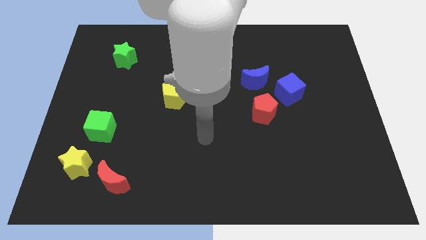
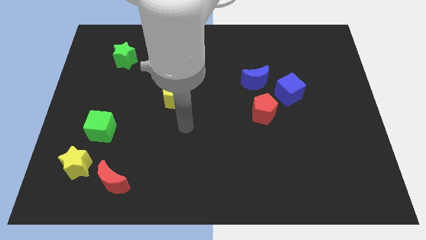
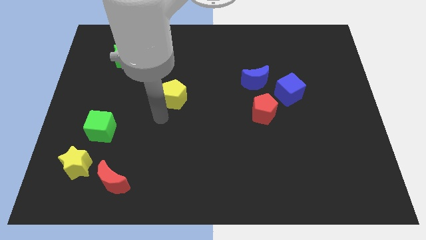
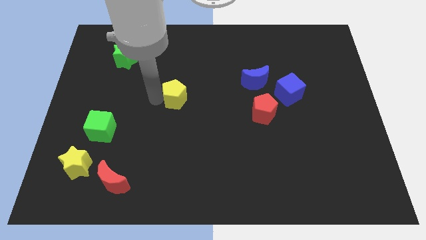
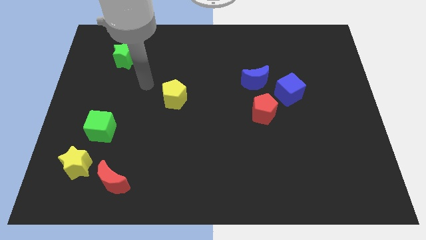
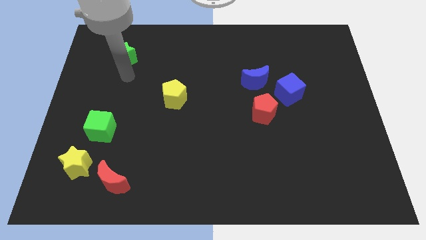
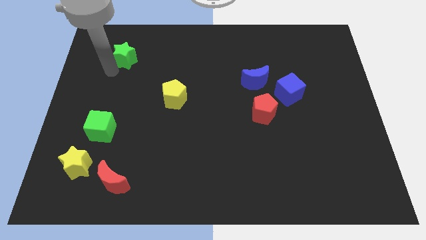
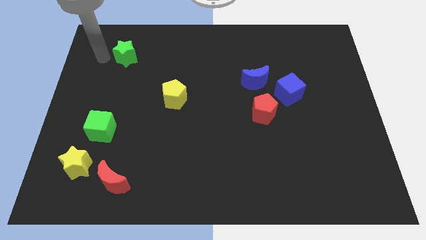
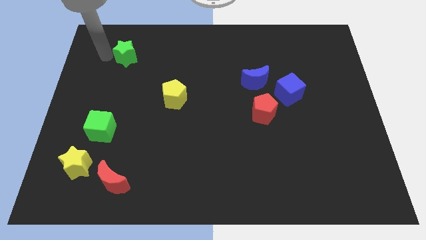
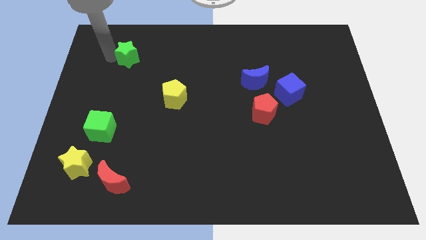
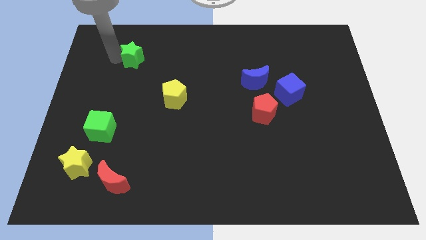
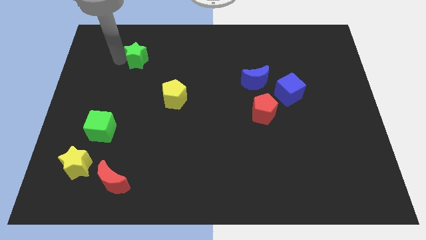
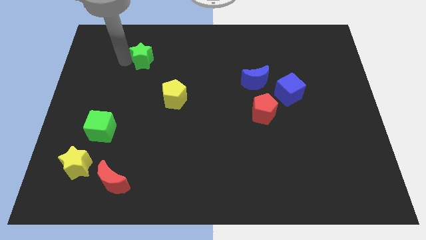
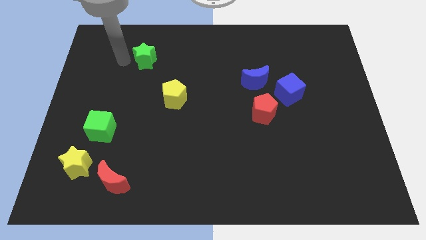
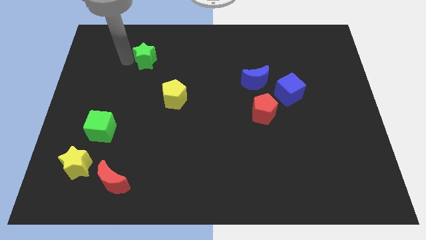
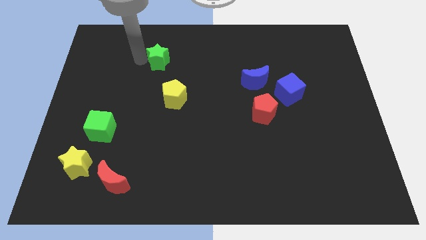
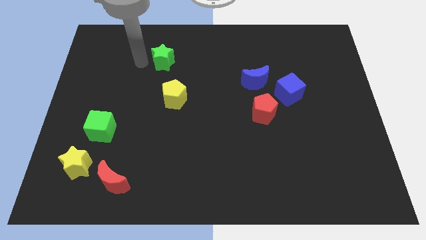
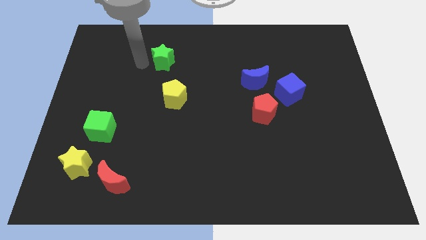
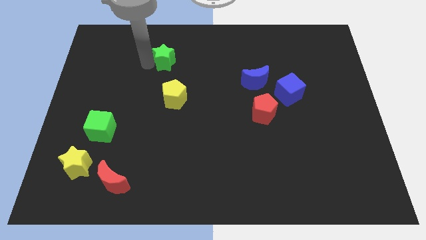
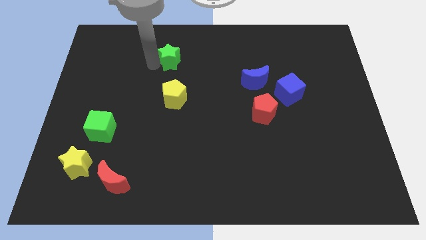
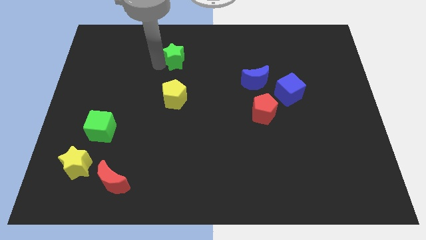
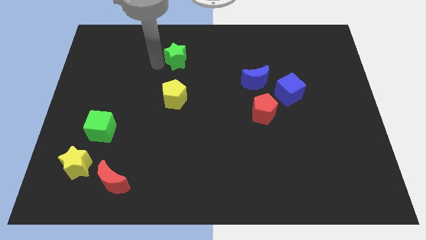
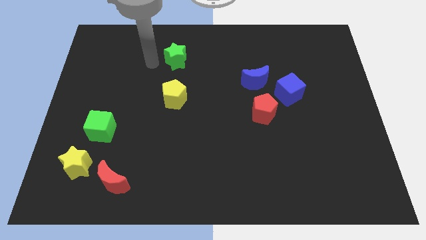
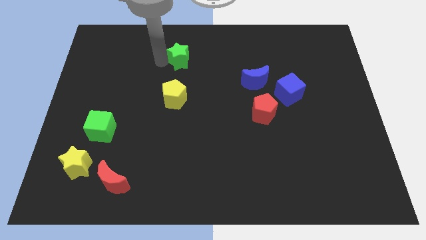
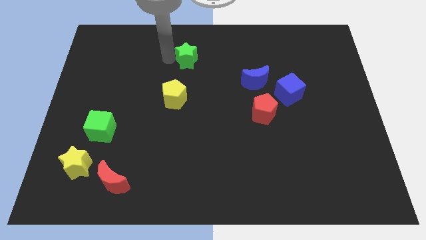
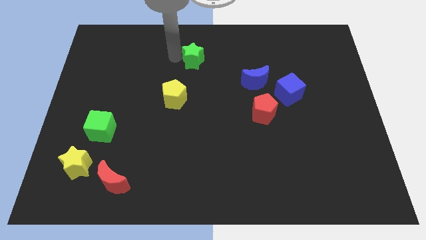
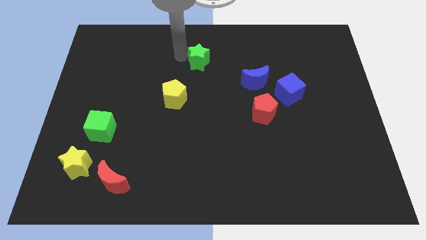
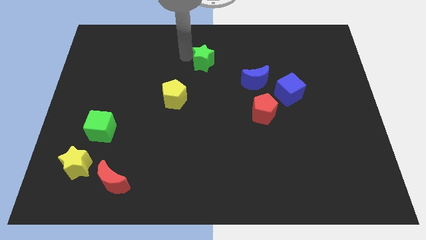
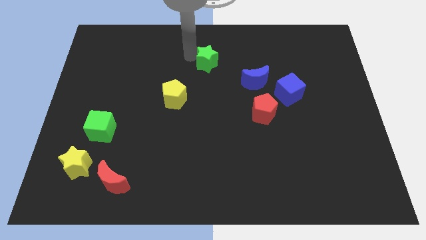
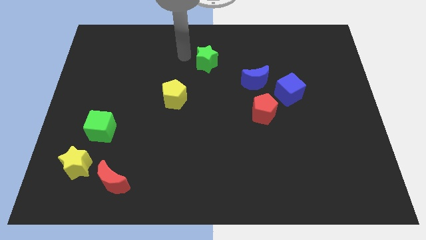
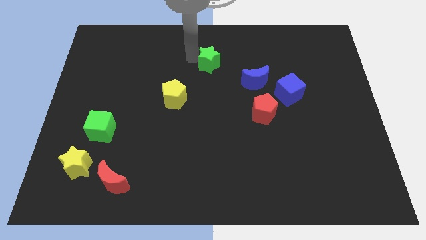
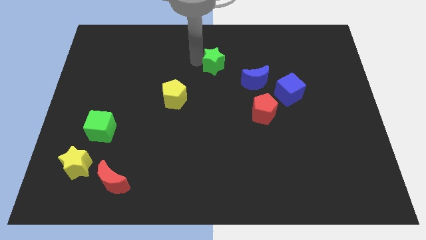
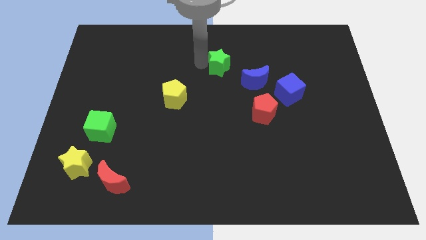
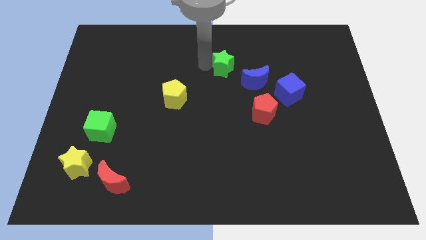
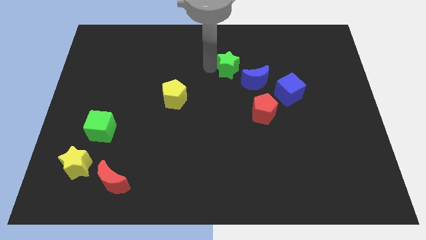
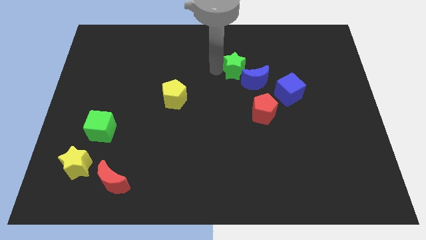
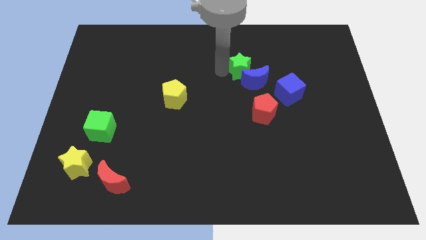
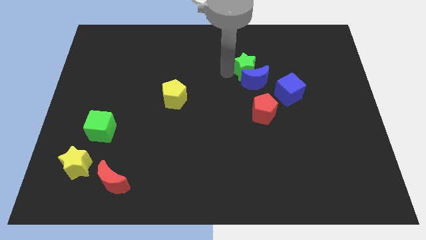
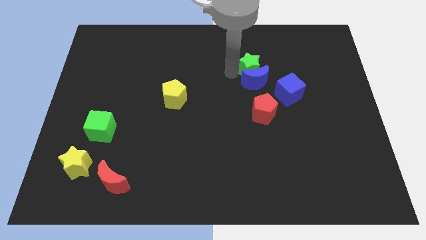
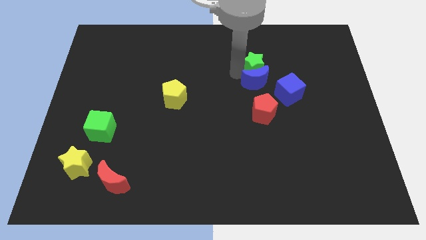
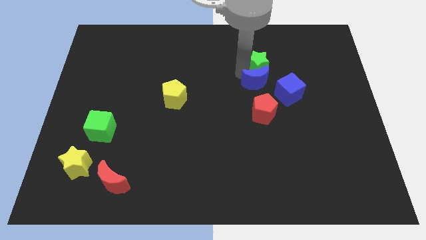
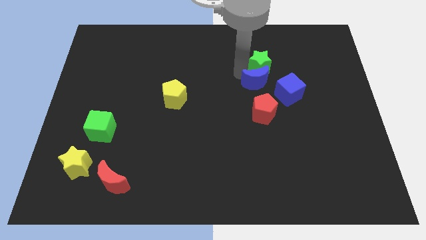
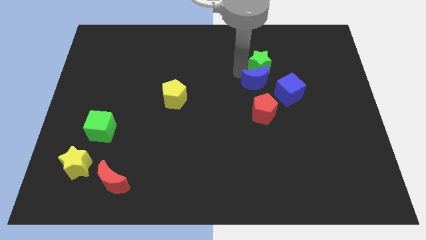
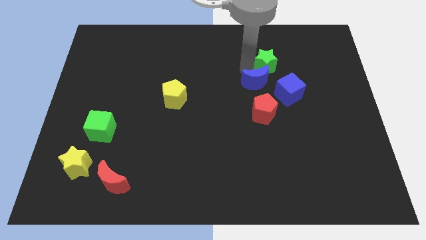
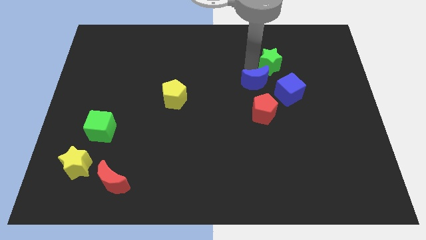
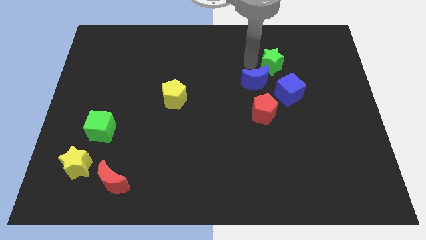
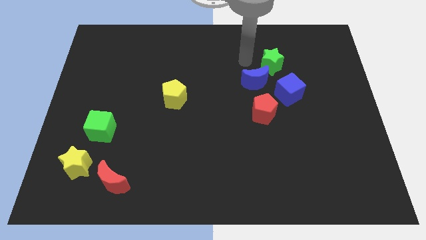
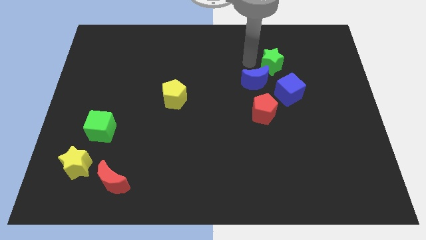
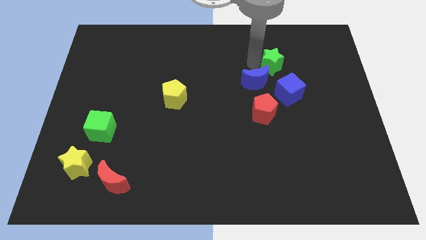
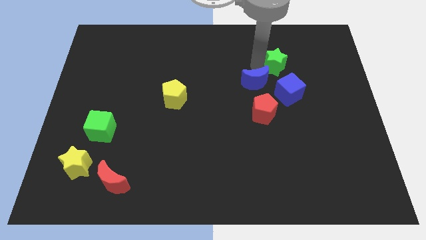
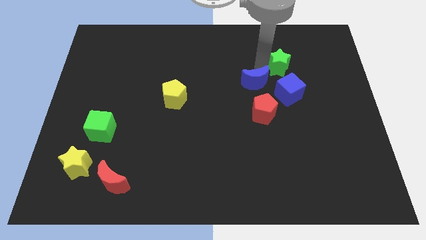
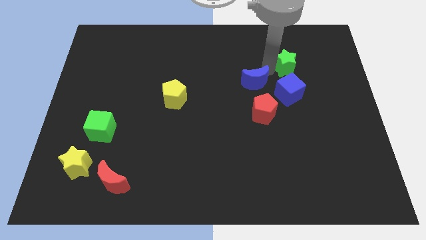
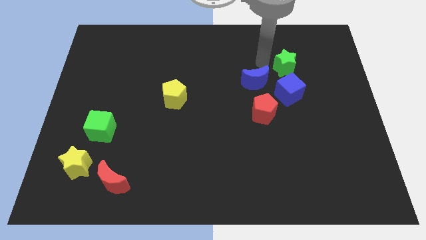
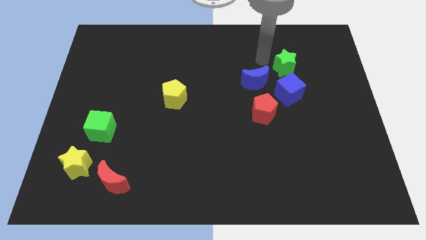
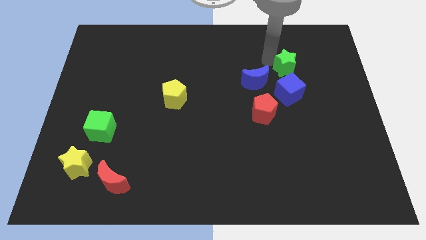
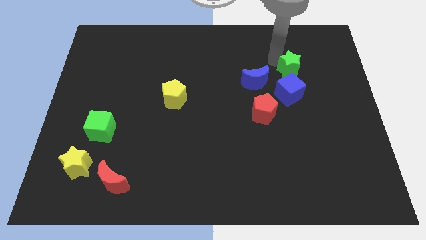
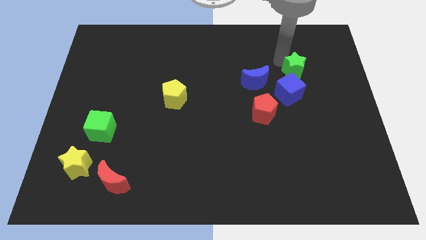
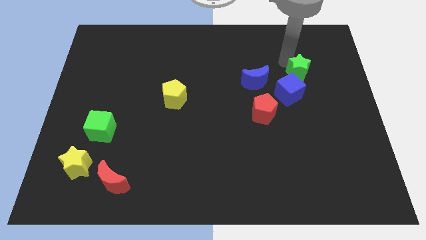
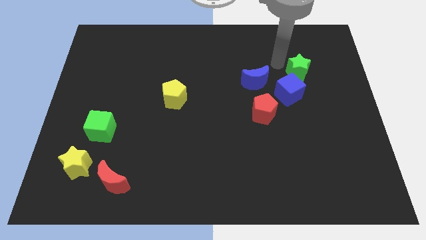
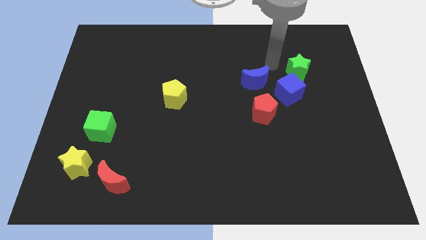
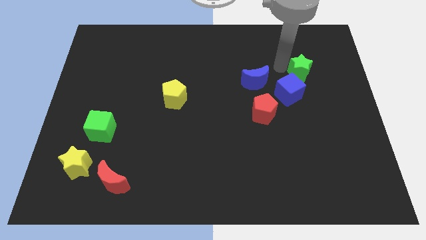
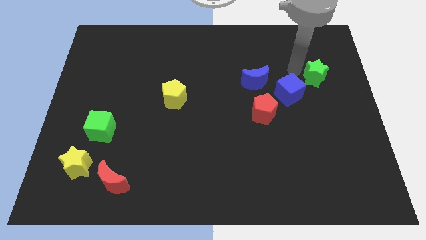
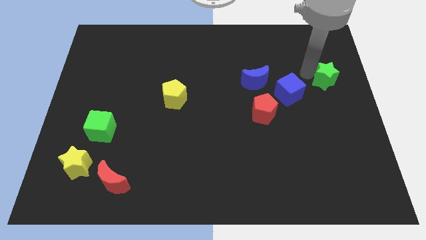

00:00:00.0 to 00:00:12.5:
put the green star to the right side of the board
